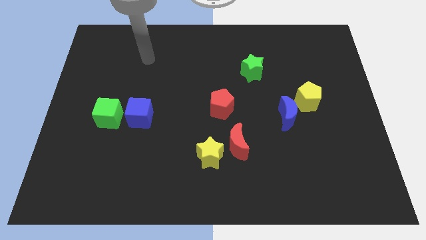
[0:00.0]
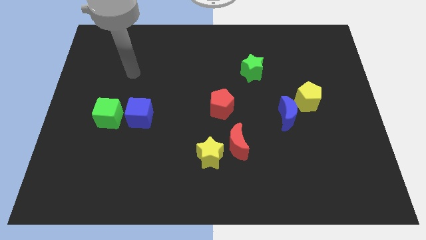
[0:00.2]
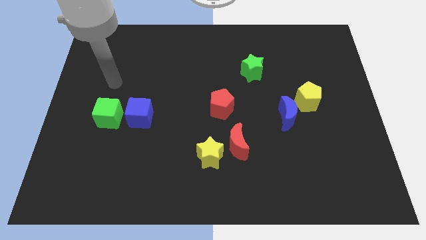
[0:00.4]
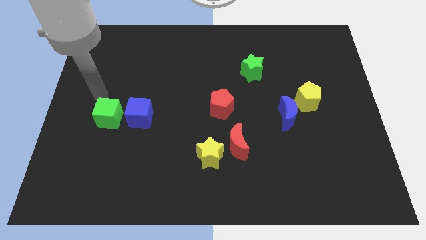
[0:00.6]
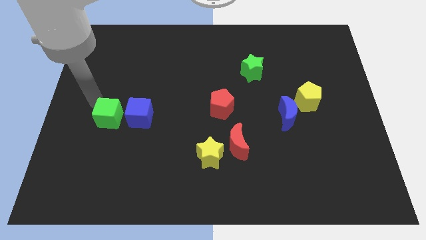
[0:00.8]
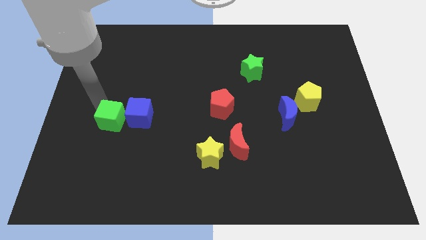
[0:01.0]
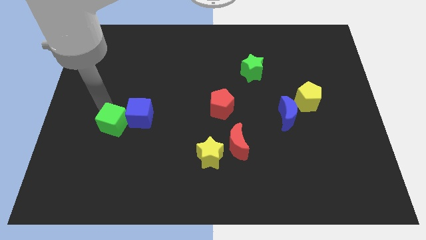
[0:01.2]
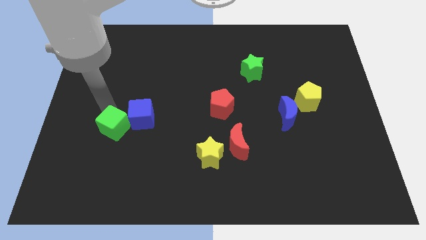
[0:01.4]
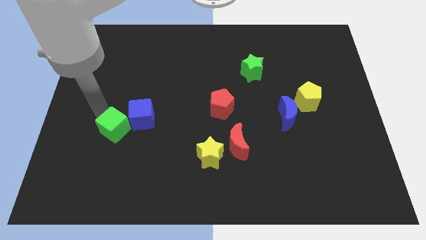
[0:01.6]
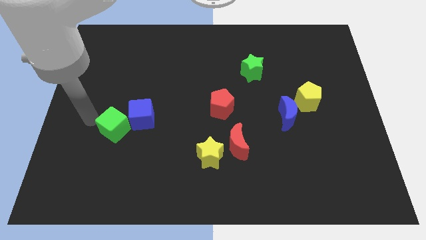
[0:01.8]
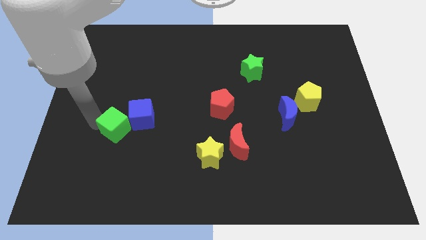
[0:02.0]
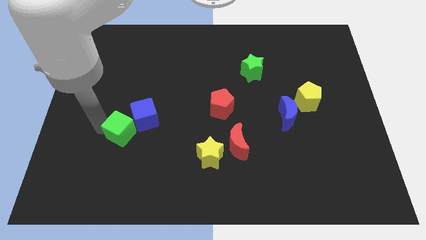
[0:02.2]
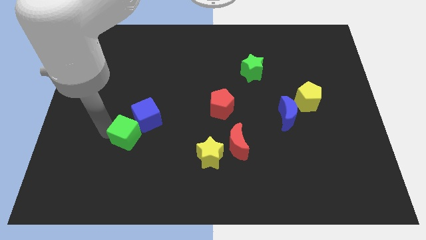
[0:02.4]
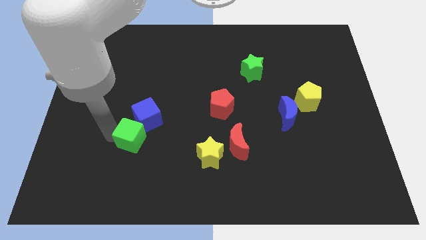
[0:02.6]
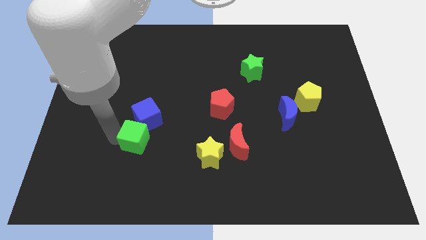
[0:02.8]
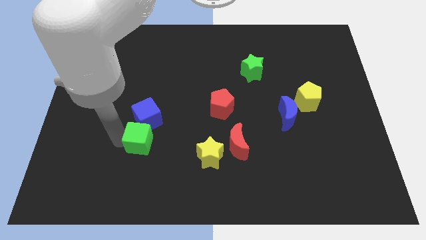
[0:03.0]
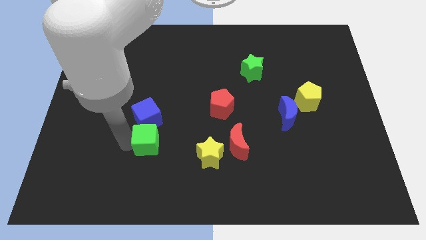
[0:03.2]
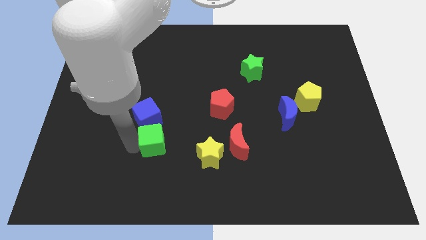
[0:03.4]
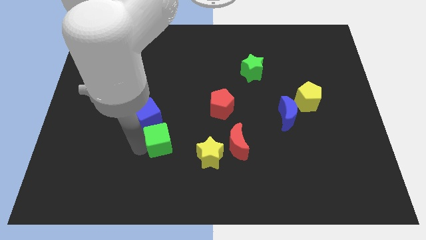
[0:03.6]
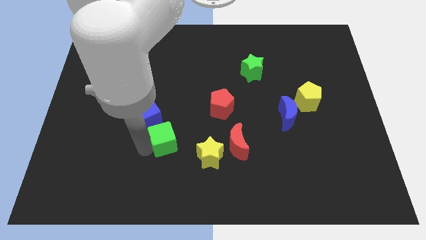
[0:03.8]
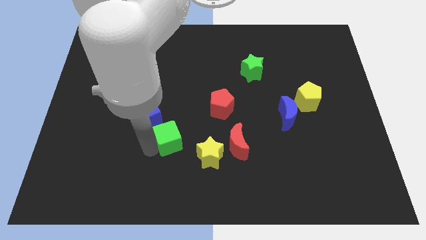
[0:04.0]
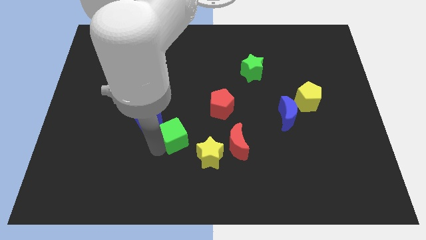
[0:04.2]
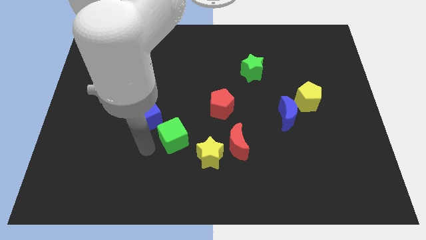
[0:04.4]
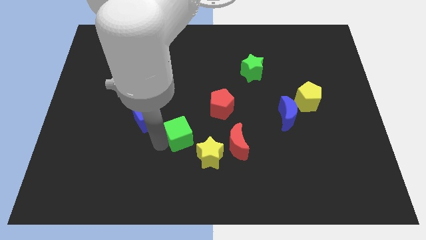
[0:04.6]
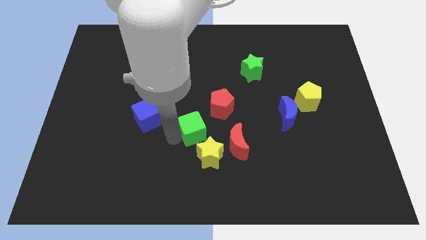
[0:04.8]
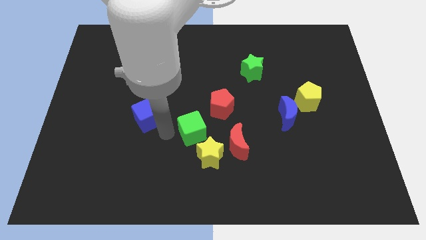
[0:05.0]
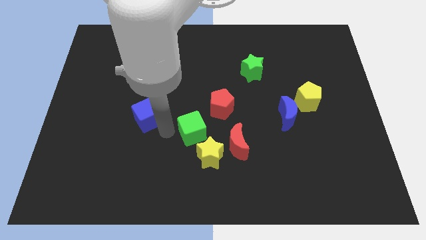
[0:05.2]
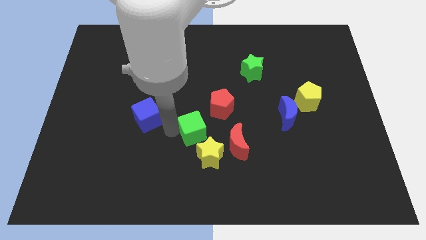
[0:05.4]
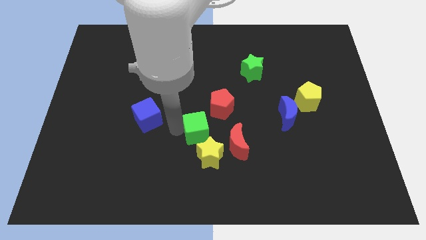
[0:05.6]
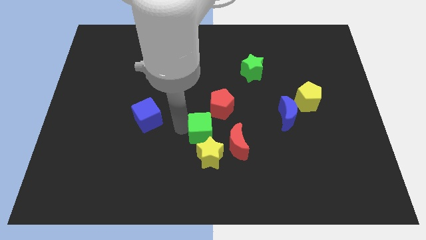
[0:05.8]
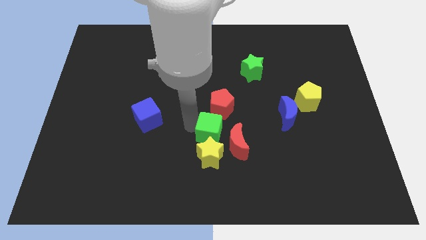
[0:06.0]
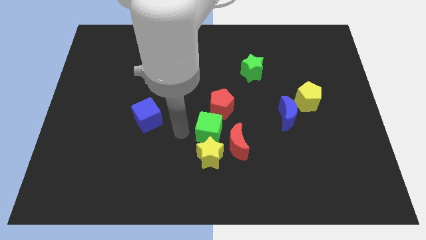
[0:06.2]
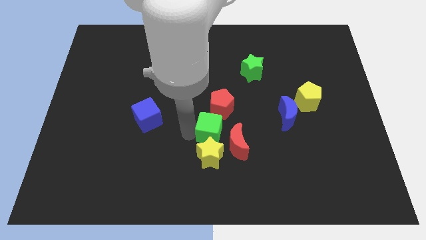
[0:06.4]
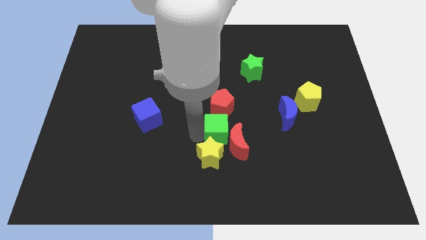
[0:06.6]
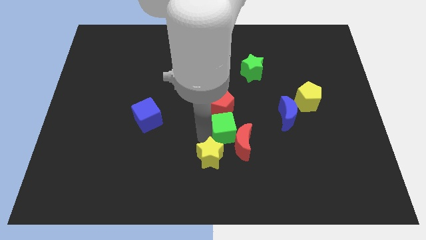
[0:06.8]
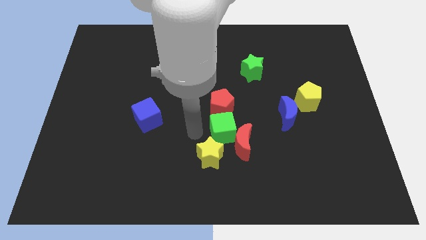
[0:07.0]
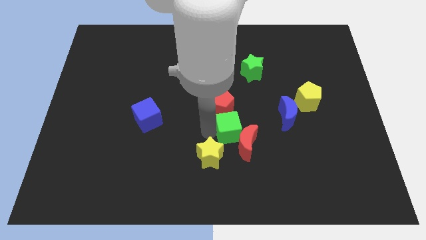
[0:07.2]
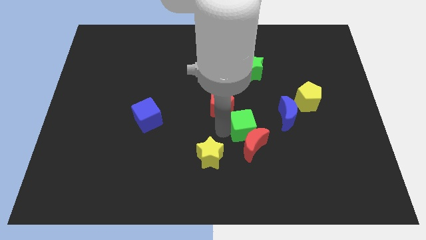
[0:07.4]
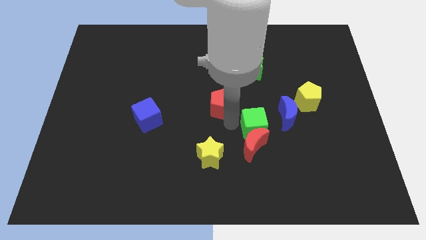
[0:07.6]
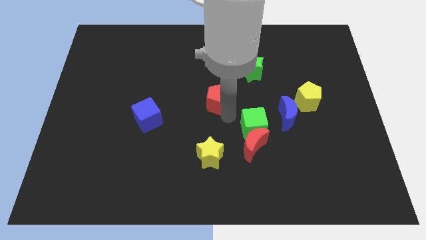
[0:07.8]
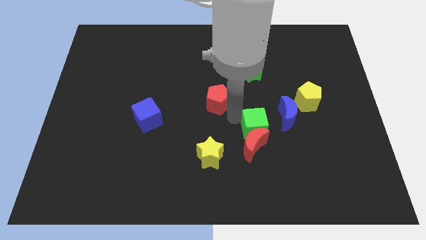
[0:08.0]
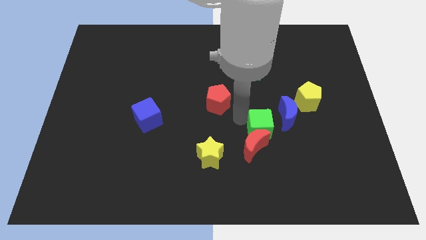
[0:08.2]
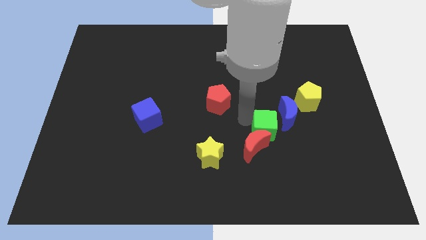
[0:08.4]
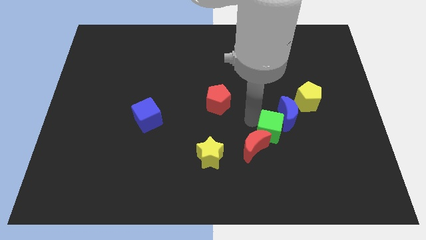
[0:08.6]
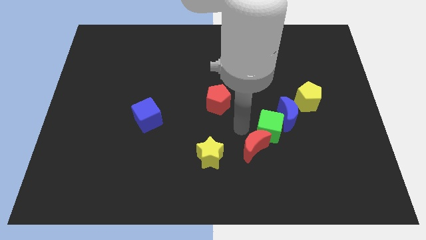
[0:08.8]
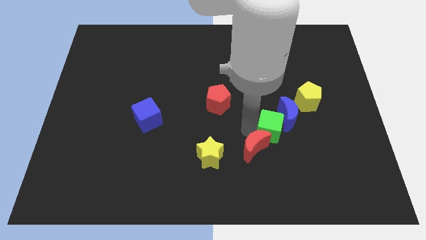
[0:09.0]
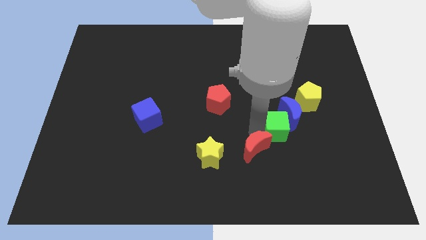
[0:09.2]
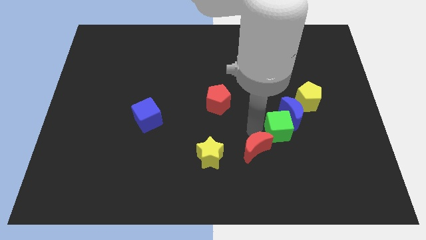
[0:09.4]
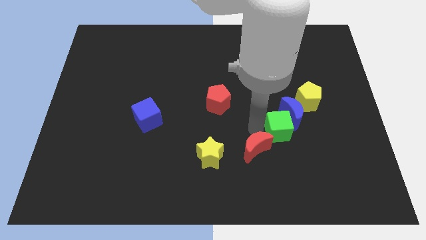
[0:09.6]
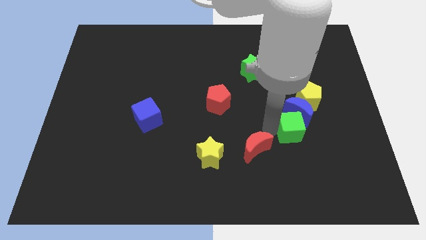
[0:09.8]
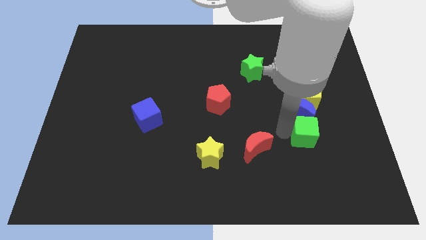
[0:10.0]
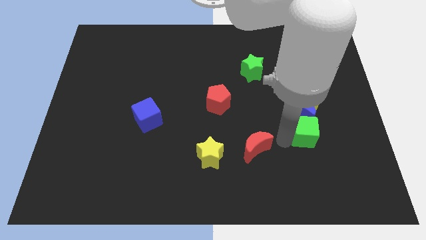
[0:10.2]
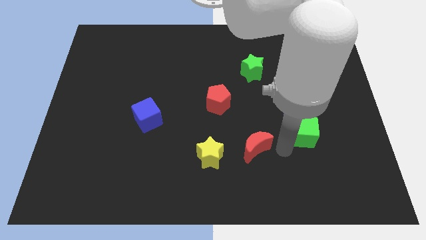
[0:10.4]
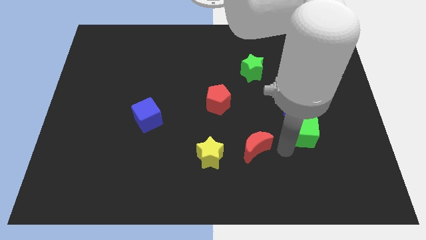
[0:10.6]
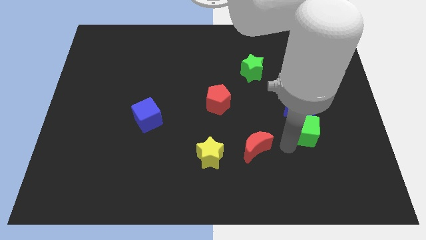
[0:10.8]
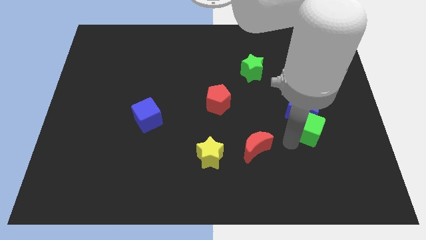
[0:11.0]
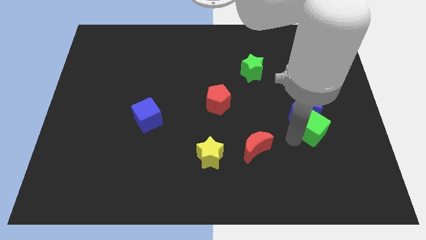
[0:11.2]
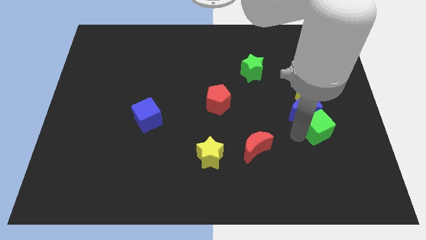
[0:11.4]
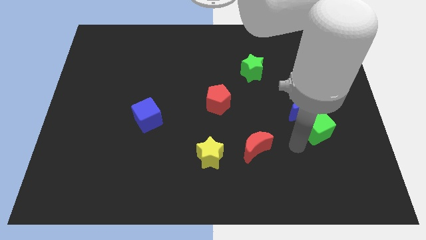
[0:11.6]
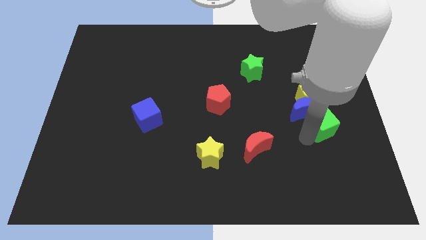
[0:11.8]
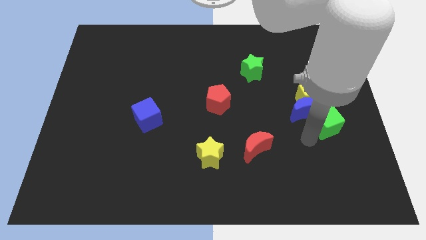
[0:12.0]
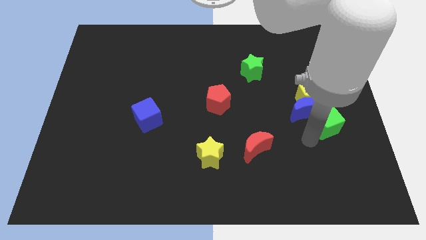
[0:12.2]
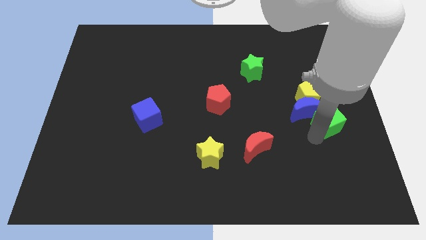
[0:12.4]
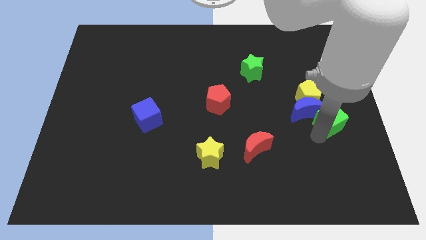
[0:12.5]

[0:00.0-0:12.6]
put the green cube to the right side
